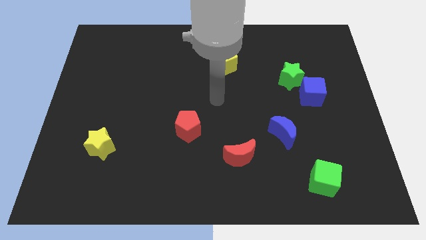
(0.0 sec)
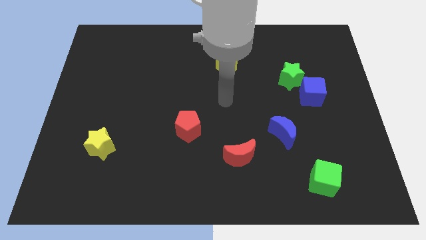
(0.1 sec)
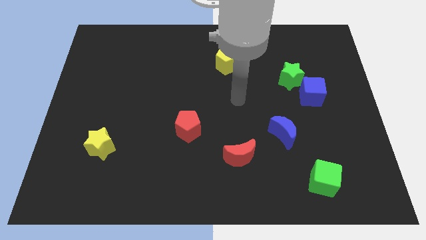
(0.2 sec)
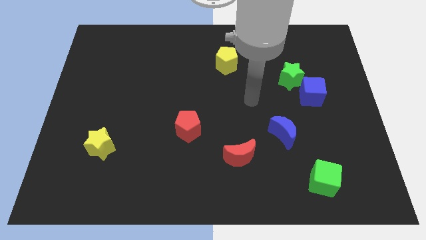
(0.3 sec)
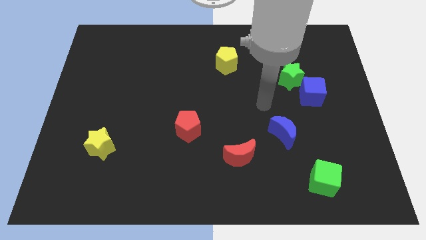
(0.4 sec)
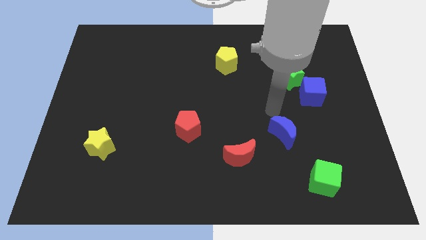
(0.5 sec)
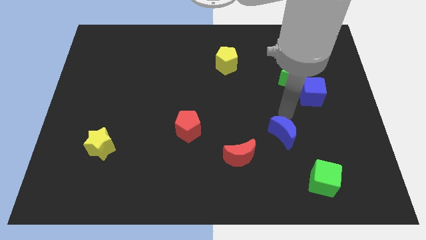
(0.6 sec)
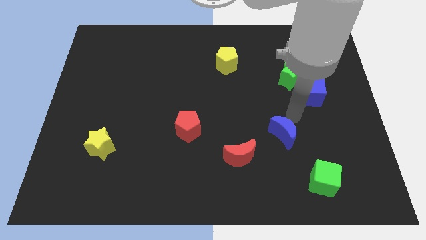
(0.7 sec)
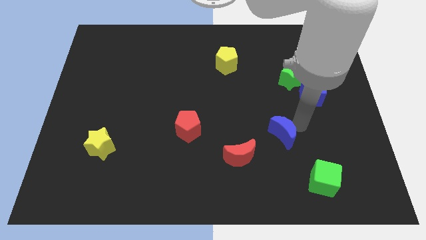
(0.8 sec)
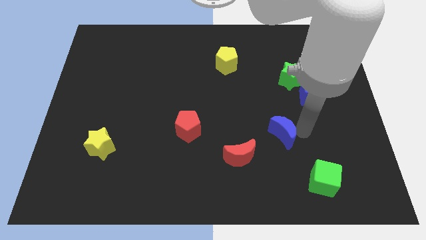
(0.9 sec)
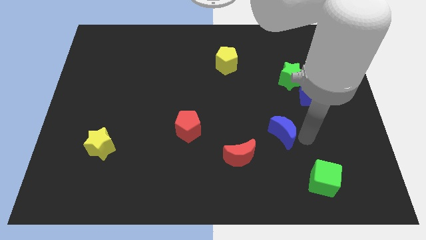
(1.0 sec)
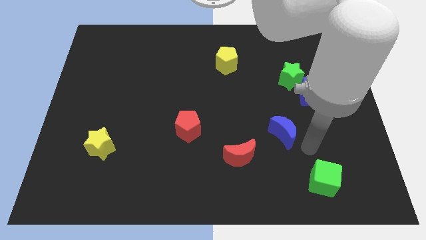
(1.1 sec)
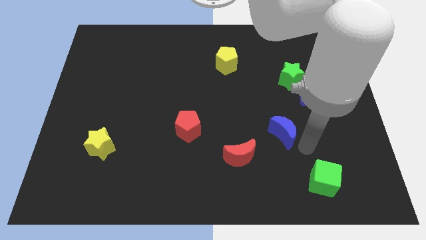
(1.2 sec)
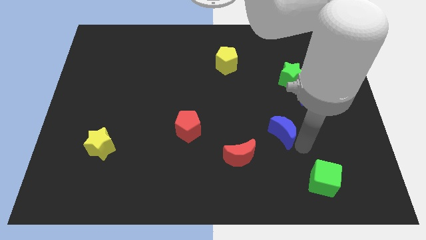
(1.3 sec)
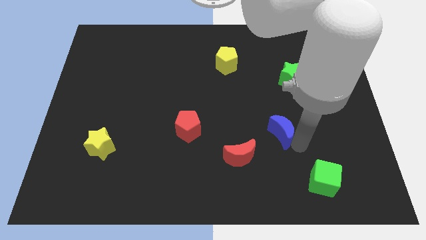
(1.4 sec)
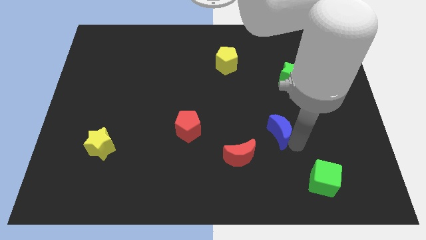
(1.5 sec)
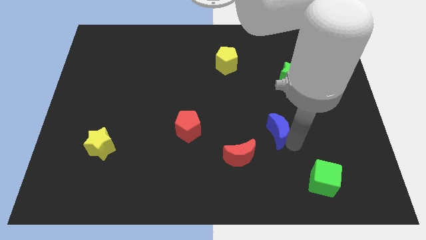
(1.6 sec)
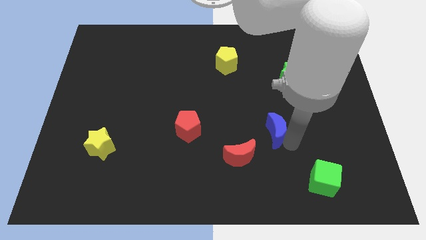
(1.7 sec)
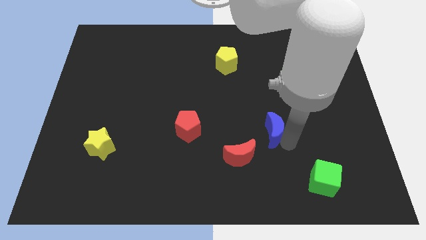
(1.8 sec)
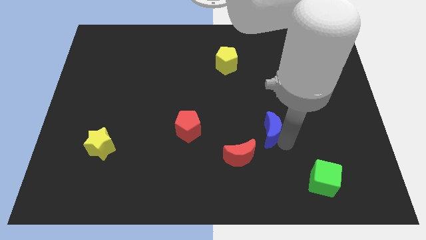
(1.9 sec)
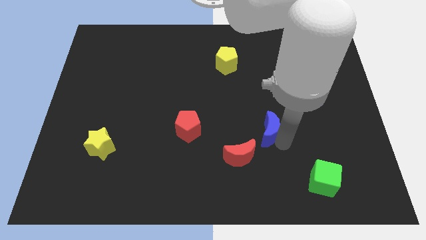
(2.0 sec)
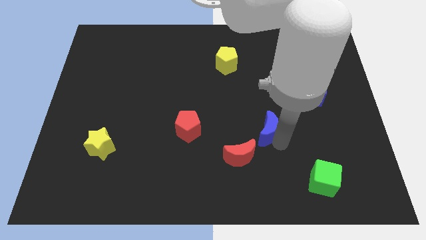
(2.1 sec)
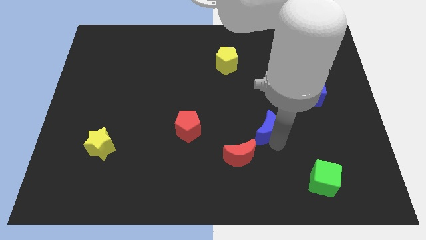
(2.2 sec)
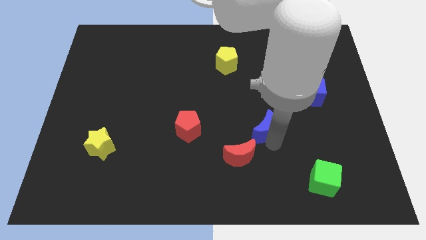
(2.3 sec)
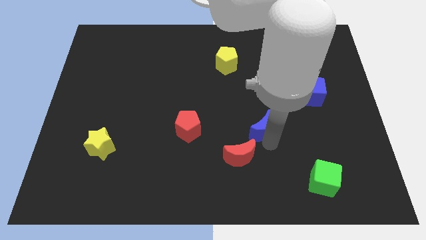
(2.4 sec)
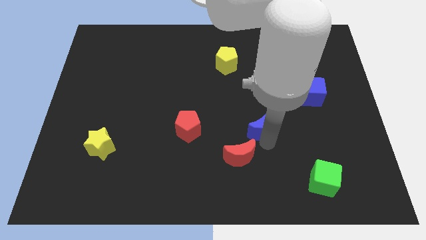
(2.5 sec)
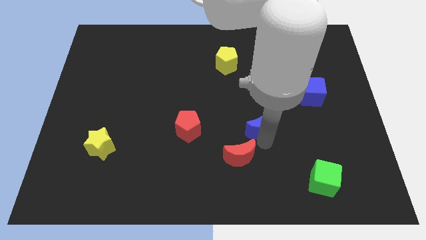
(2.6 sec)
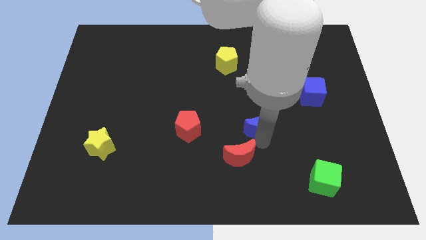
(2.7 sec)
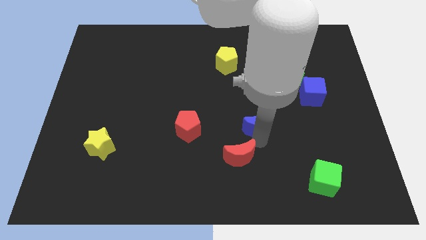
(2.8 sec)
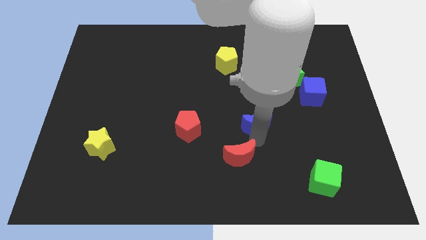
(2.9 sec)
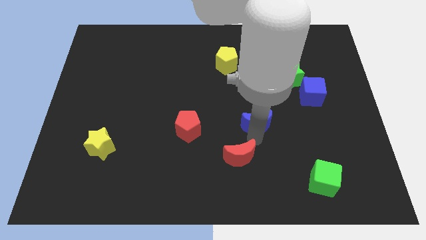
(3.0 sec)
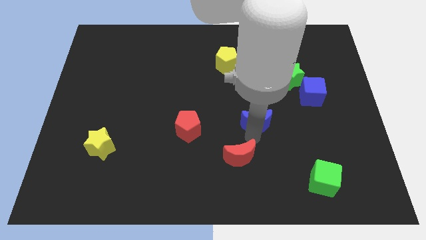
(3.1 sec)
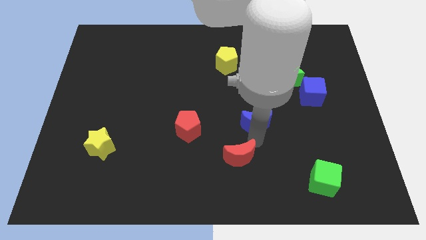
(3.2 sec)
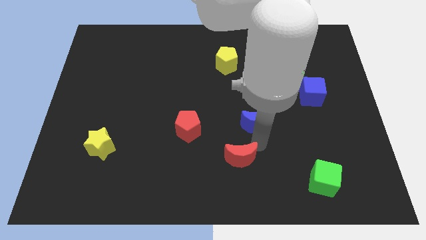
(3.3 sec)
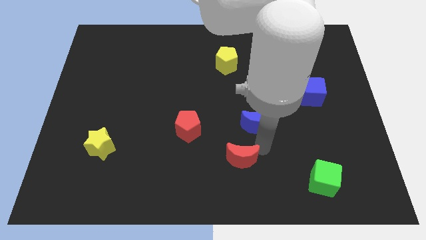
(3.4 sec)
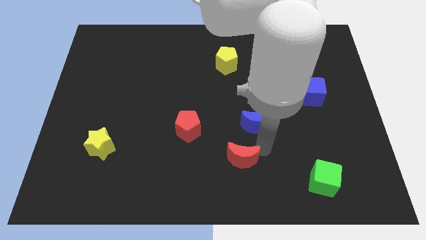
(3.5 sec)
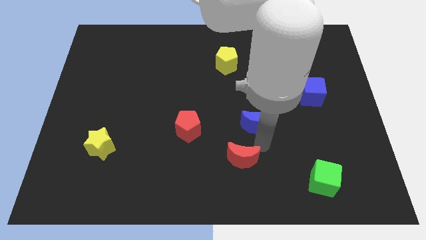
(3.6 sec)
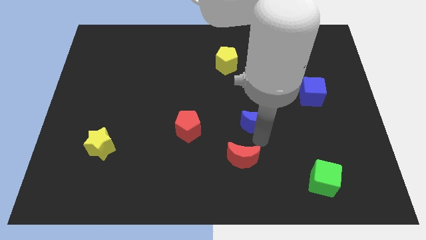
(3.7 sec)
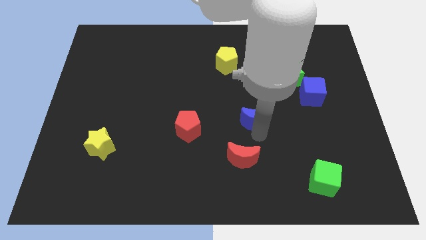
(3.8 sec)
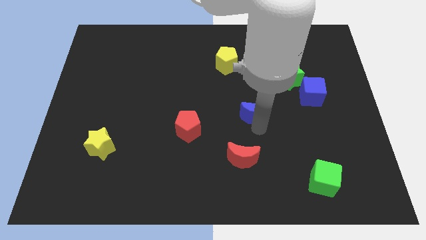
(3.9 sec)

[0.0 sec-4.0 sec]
slide the blue moon up and to the left a little

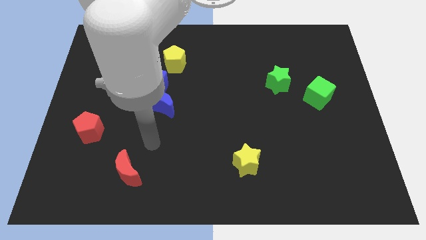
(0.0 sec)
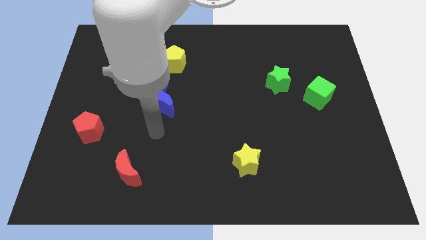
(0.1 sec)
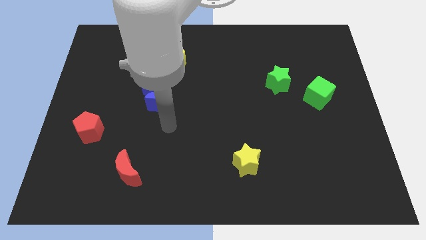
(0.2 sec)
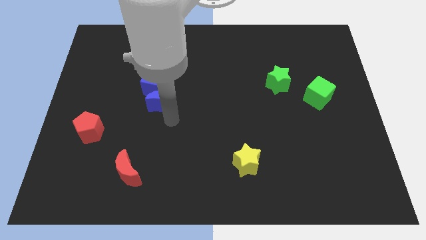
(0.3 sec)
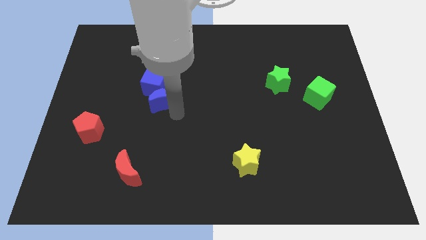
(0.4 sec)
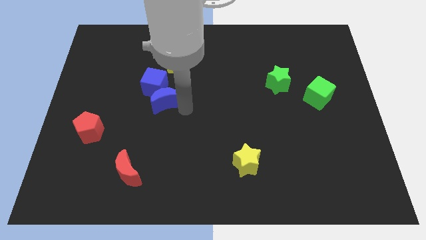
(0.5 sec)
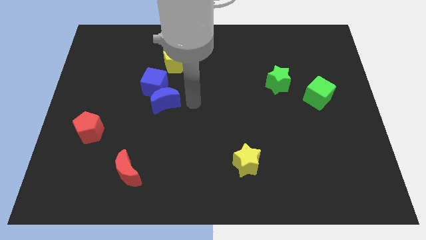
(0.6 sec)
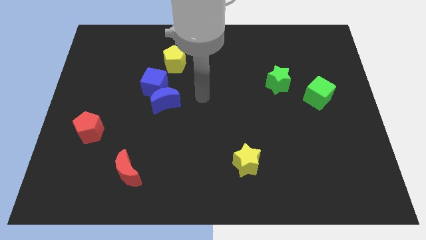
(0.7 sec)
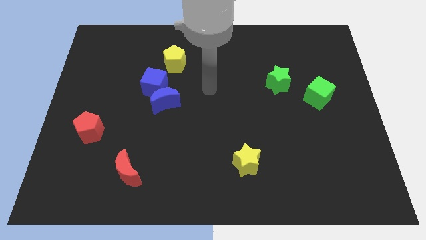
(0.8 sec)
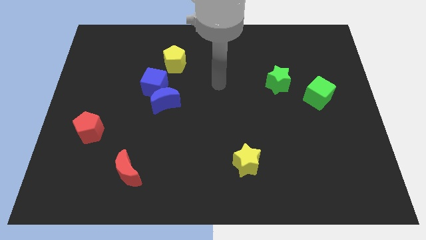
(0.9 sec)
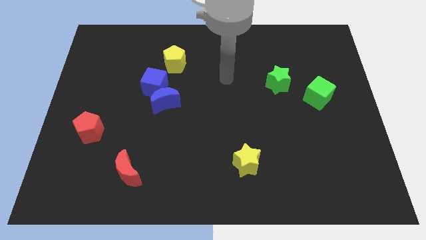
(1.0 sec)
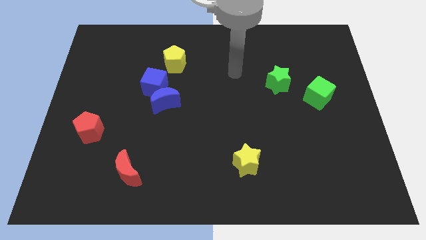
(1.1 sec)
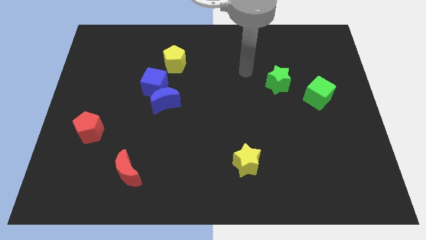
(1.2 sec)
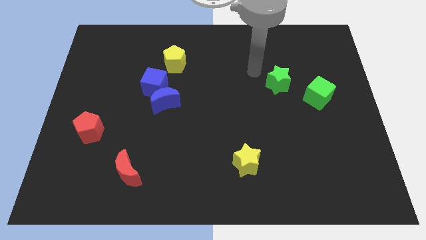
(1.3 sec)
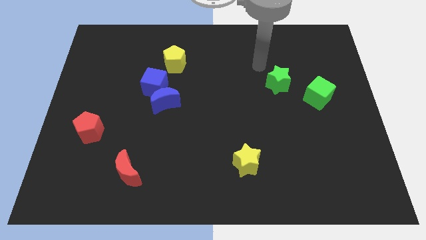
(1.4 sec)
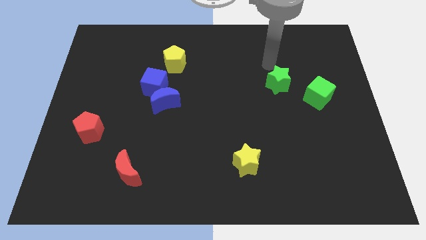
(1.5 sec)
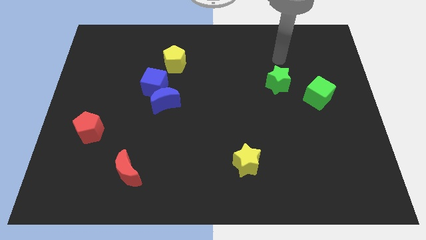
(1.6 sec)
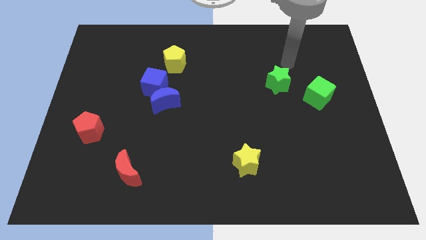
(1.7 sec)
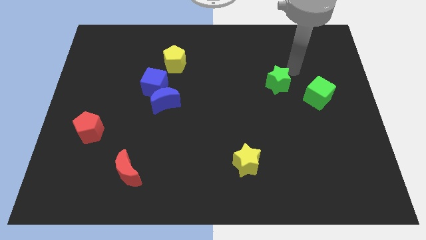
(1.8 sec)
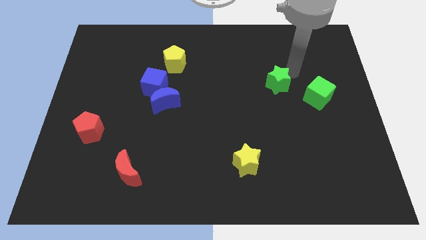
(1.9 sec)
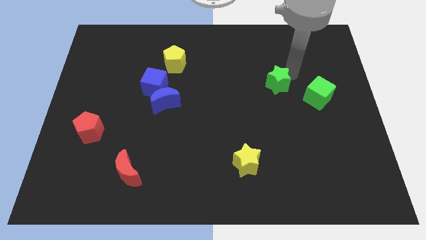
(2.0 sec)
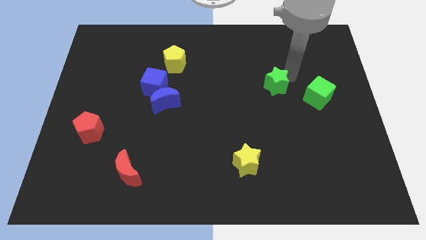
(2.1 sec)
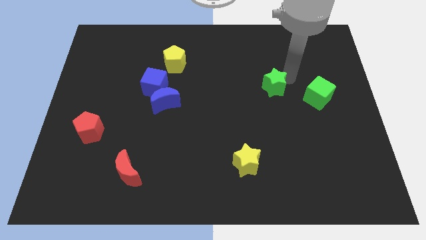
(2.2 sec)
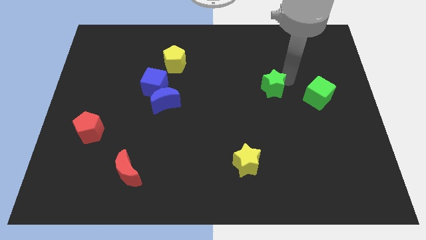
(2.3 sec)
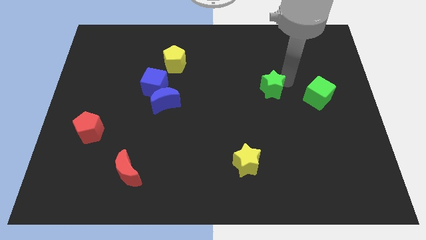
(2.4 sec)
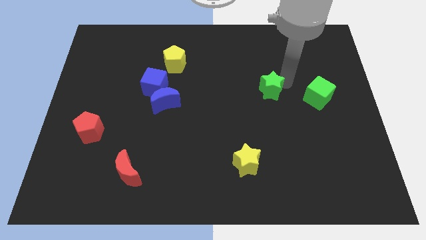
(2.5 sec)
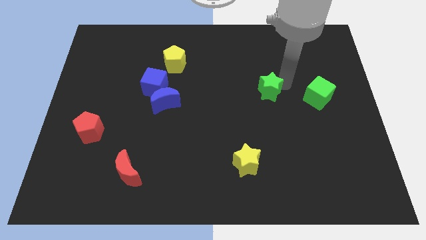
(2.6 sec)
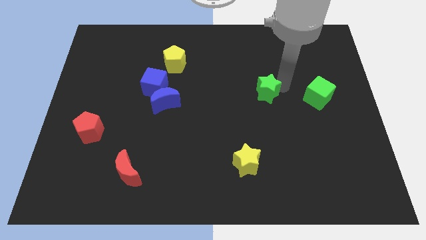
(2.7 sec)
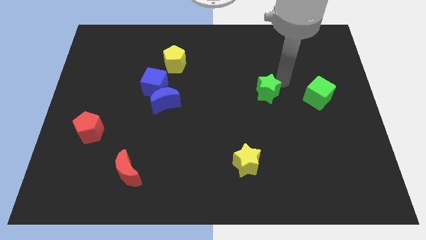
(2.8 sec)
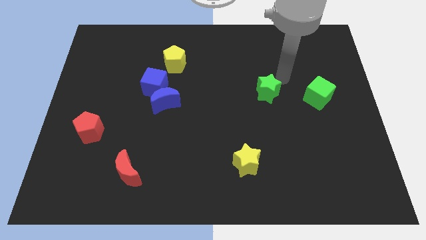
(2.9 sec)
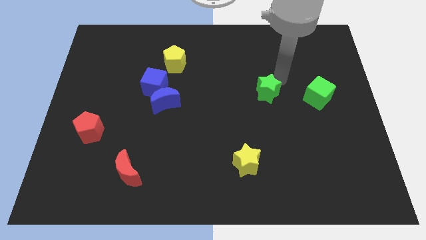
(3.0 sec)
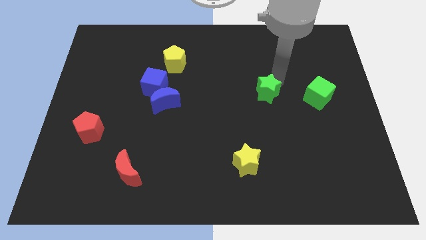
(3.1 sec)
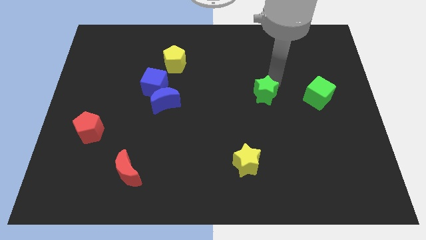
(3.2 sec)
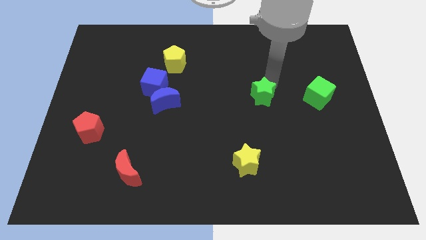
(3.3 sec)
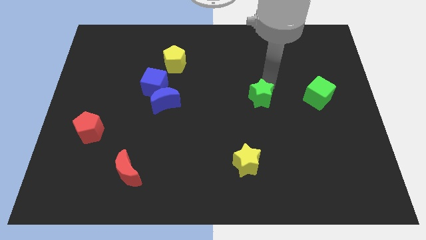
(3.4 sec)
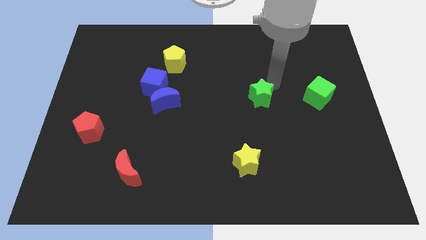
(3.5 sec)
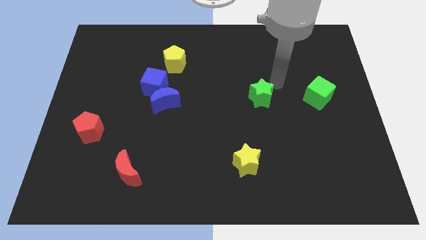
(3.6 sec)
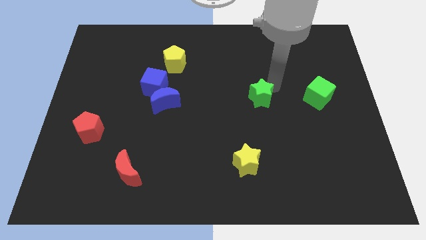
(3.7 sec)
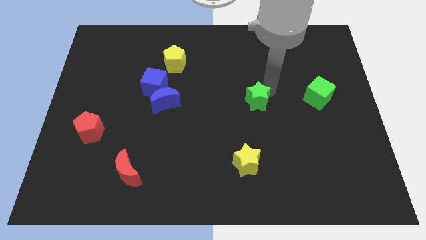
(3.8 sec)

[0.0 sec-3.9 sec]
slightly move the green star diagonally down and left
